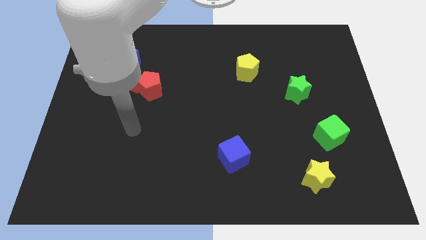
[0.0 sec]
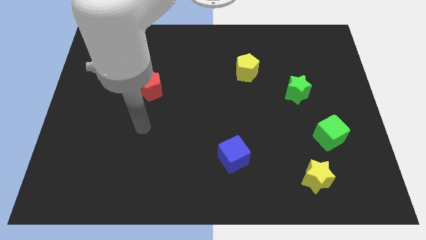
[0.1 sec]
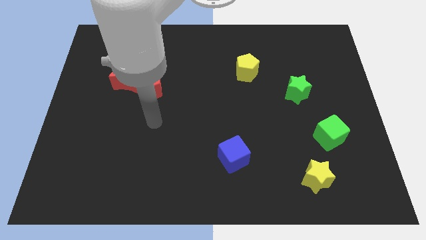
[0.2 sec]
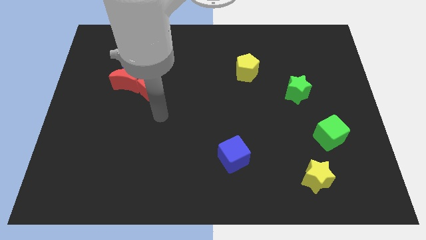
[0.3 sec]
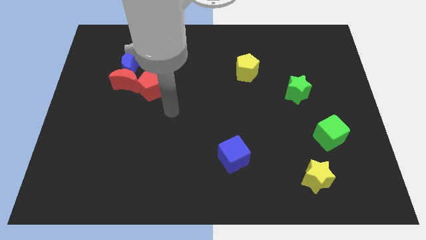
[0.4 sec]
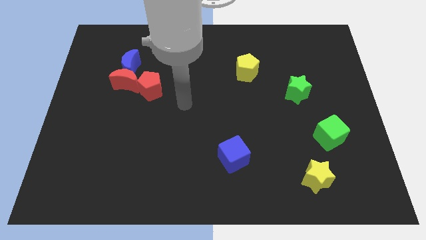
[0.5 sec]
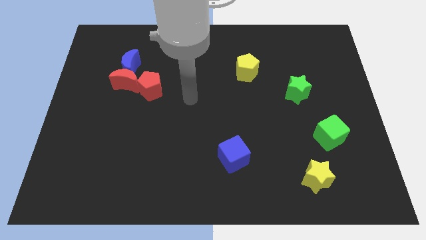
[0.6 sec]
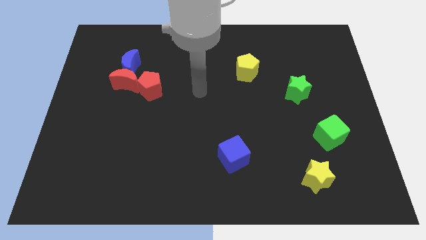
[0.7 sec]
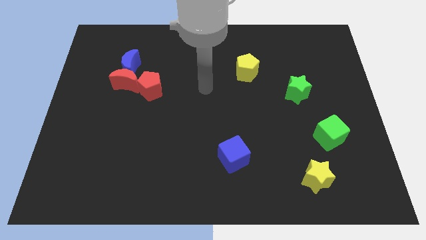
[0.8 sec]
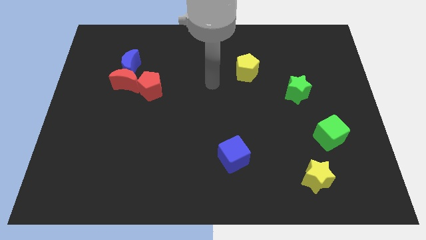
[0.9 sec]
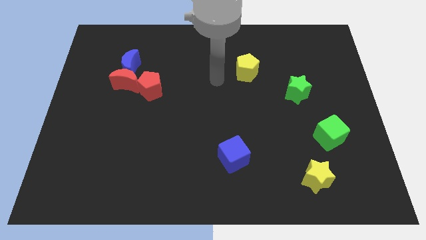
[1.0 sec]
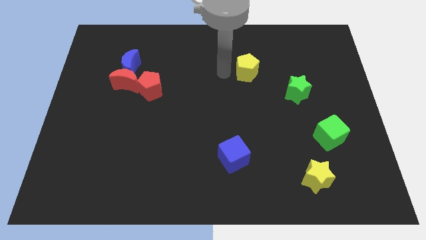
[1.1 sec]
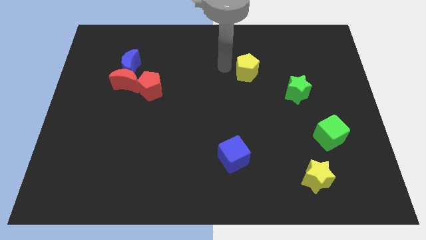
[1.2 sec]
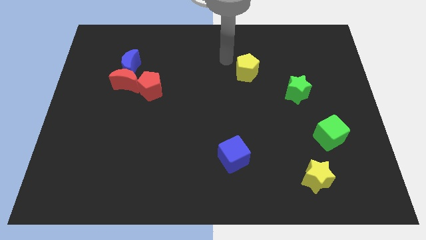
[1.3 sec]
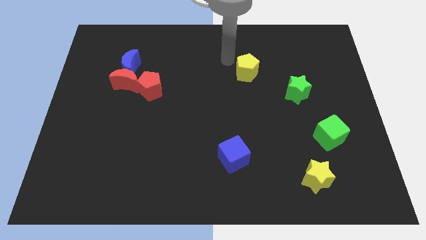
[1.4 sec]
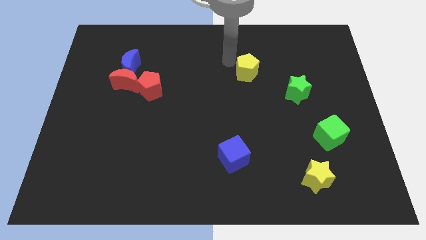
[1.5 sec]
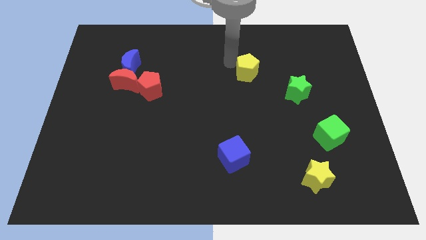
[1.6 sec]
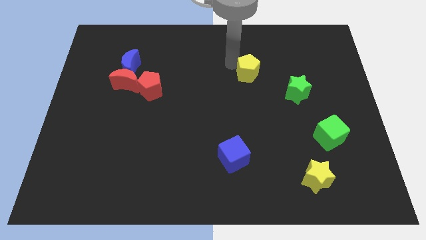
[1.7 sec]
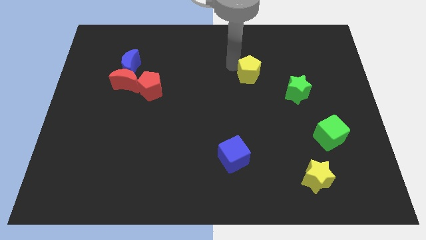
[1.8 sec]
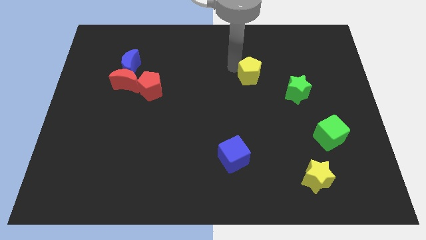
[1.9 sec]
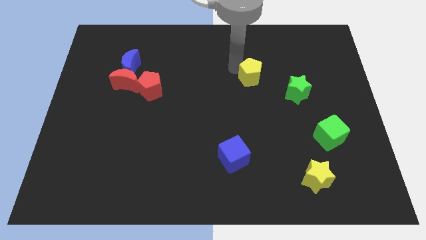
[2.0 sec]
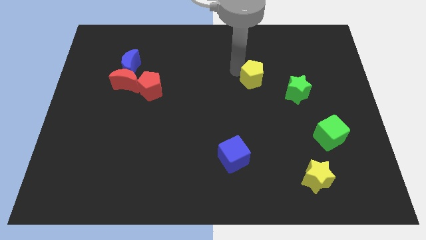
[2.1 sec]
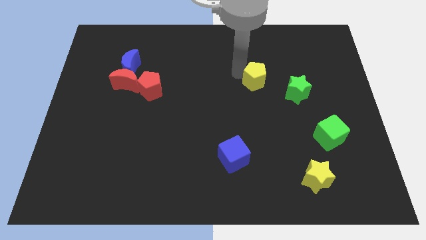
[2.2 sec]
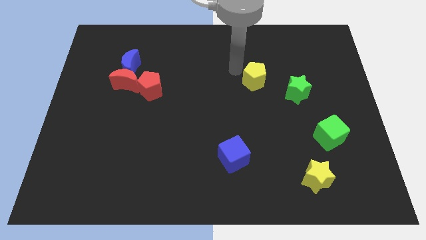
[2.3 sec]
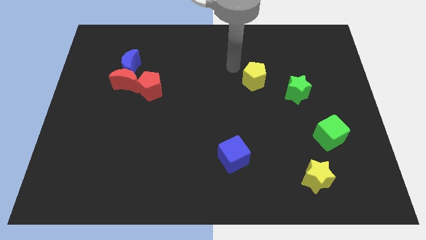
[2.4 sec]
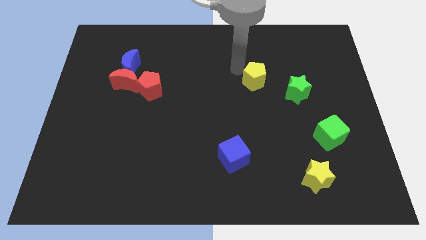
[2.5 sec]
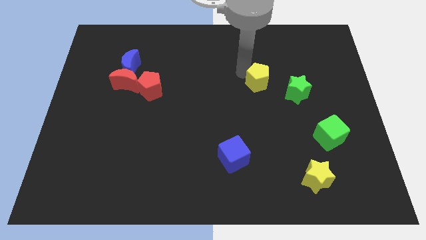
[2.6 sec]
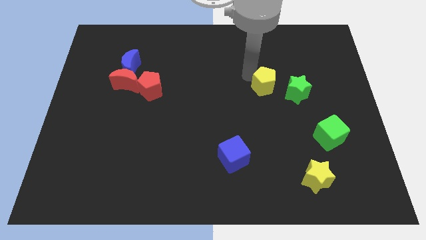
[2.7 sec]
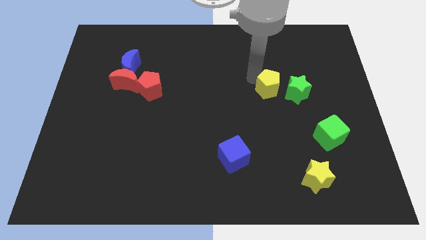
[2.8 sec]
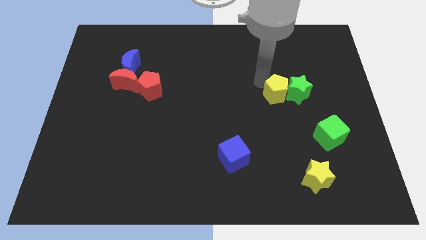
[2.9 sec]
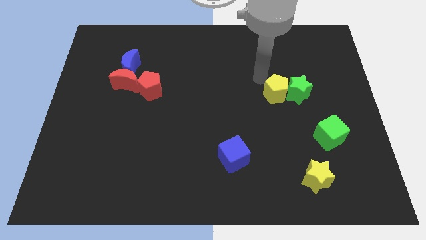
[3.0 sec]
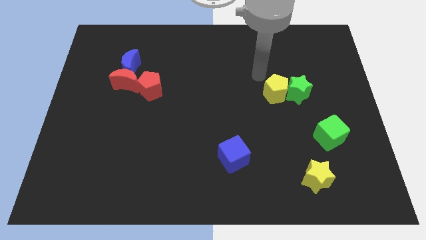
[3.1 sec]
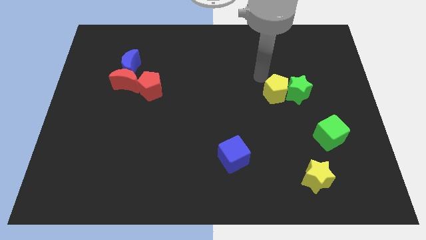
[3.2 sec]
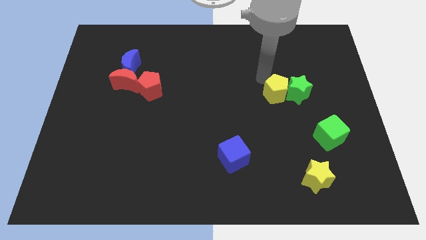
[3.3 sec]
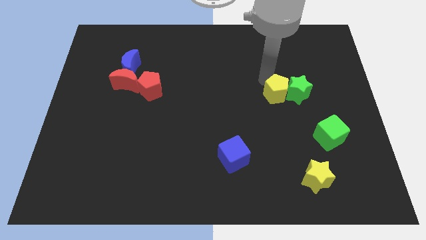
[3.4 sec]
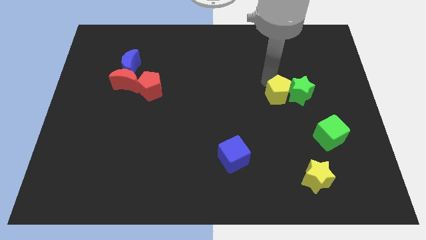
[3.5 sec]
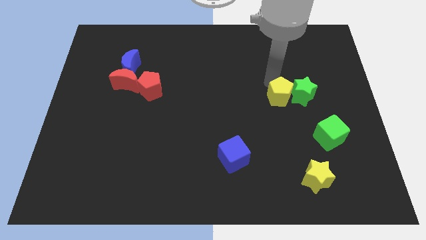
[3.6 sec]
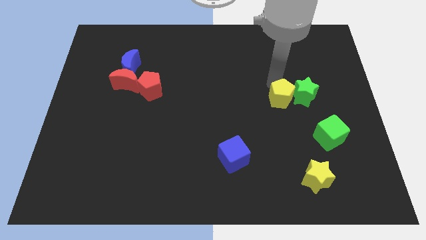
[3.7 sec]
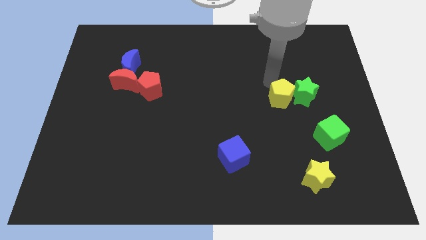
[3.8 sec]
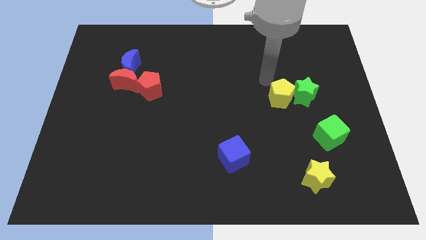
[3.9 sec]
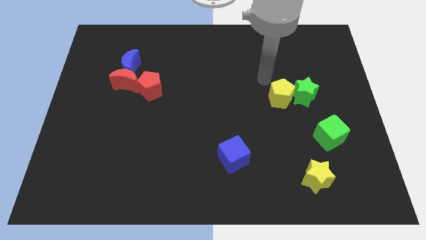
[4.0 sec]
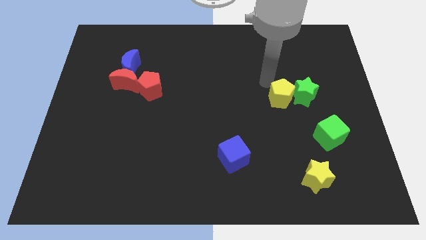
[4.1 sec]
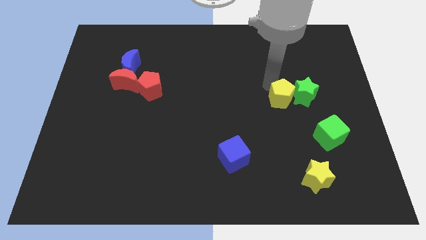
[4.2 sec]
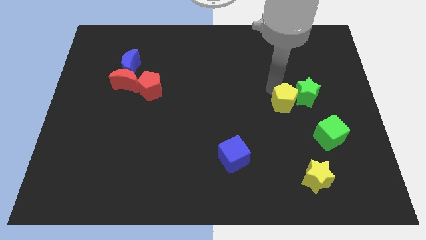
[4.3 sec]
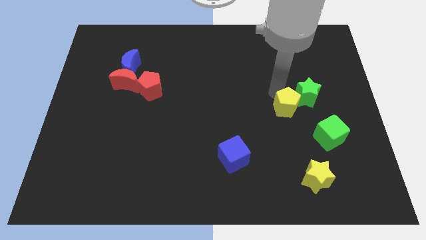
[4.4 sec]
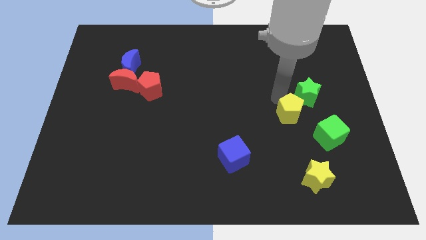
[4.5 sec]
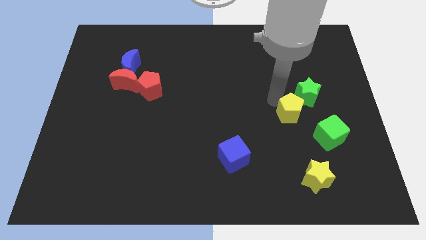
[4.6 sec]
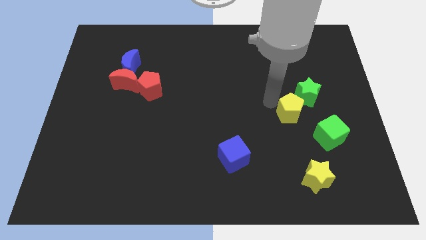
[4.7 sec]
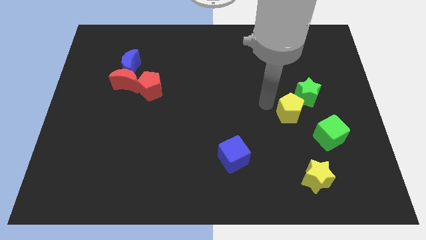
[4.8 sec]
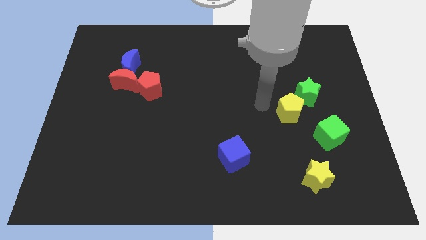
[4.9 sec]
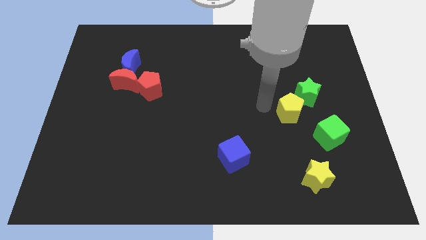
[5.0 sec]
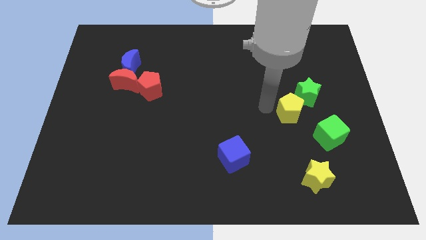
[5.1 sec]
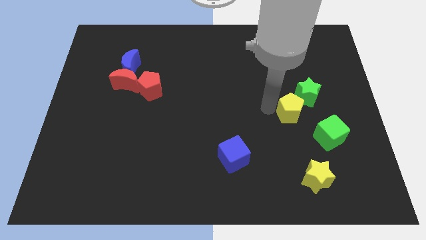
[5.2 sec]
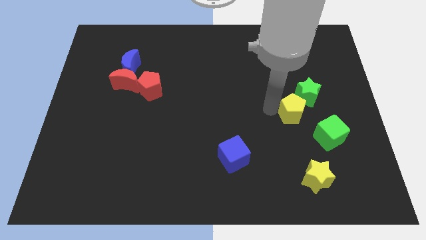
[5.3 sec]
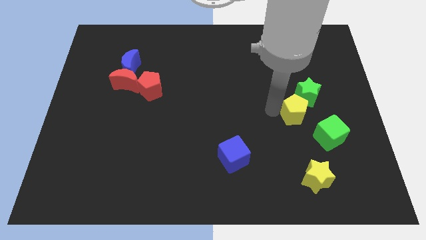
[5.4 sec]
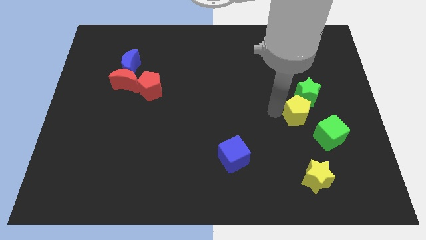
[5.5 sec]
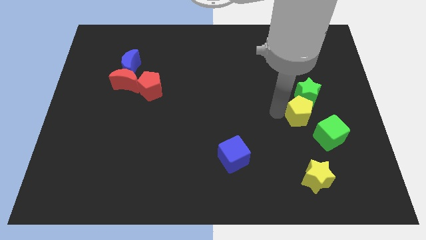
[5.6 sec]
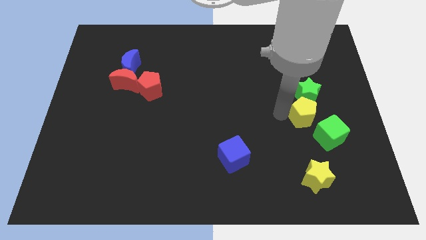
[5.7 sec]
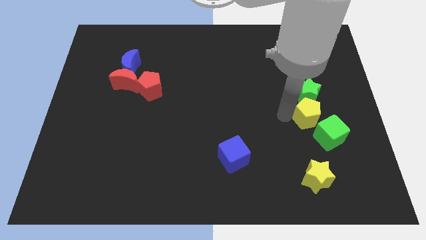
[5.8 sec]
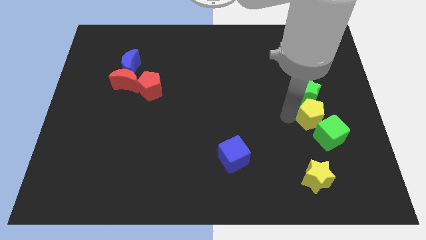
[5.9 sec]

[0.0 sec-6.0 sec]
move the yellow pentagon towards the green cube

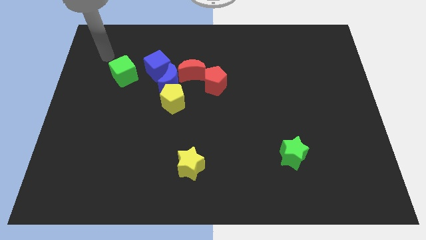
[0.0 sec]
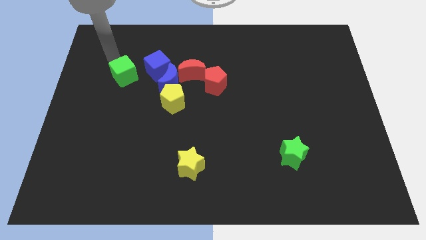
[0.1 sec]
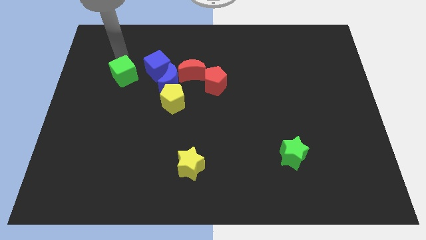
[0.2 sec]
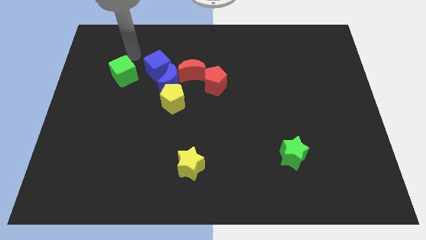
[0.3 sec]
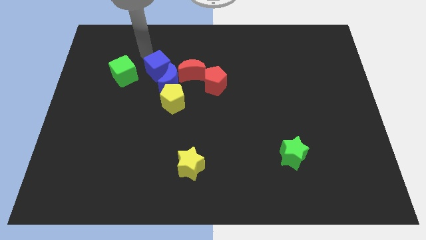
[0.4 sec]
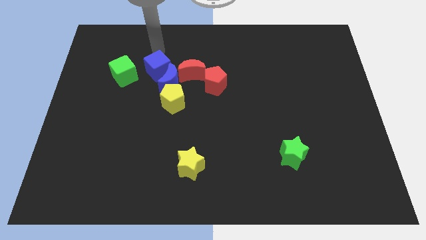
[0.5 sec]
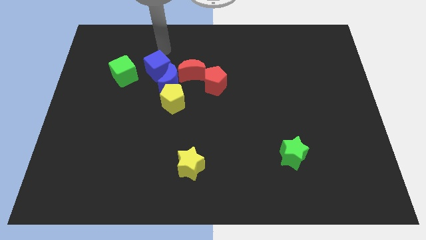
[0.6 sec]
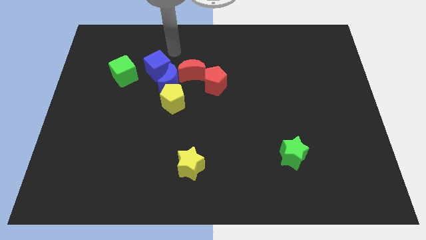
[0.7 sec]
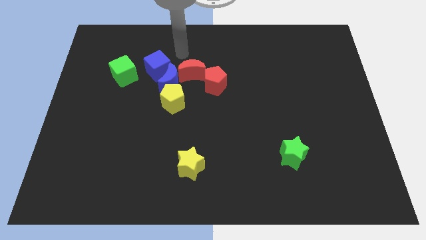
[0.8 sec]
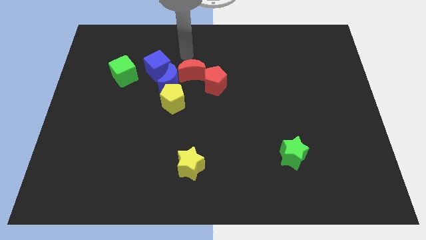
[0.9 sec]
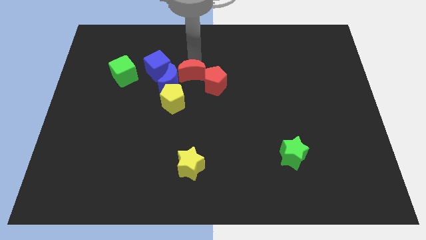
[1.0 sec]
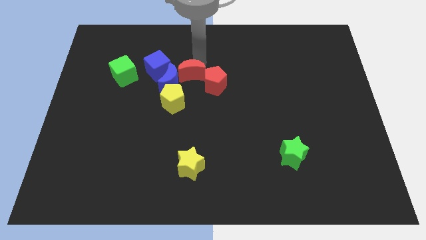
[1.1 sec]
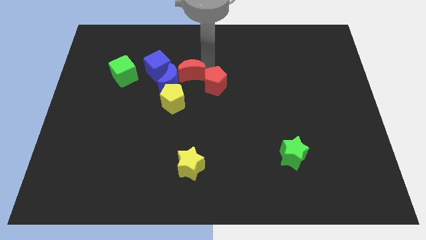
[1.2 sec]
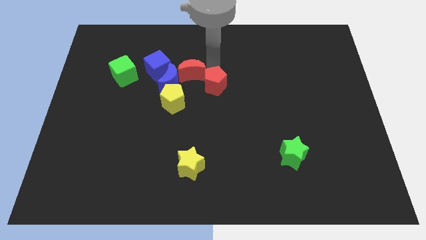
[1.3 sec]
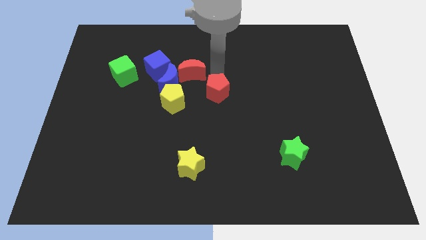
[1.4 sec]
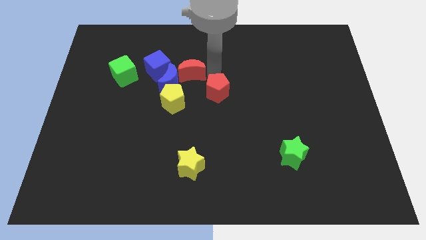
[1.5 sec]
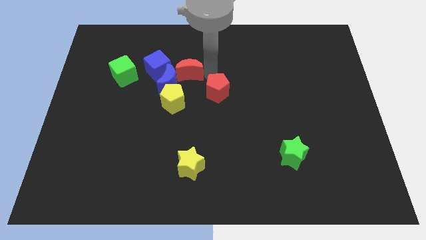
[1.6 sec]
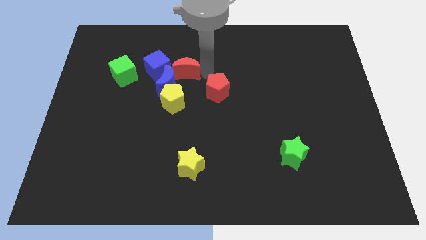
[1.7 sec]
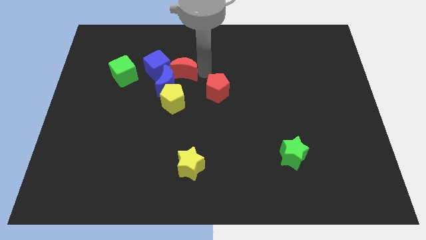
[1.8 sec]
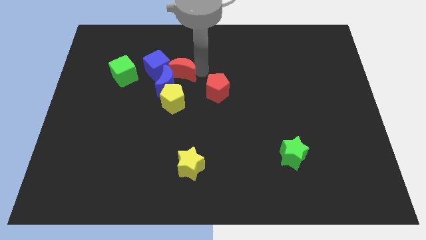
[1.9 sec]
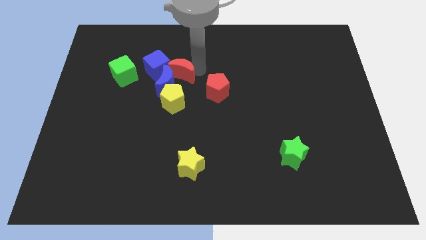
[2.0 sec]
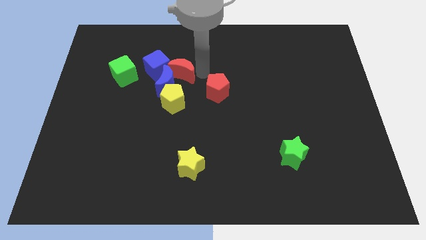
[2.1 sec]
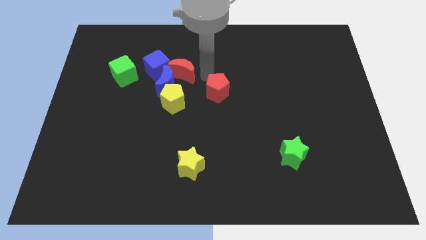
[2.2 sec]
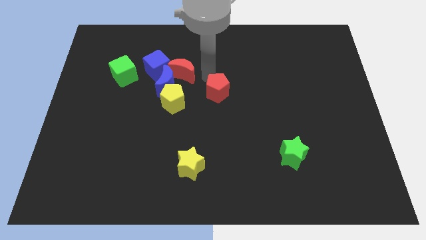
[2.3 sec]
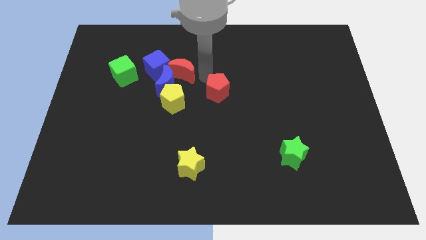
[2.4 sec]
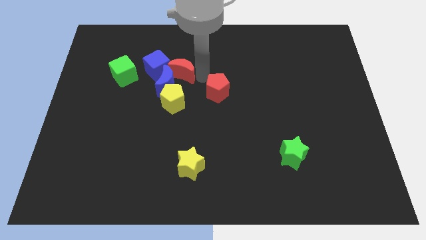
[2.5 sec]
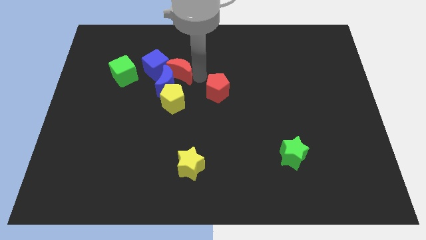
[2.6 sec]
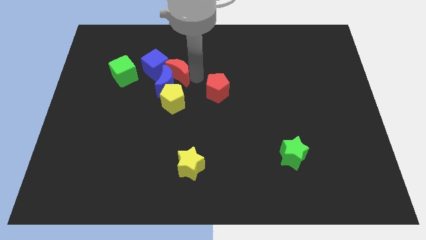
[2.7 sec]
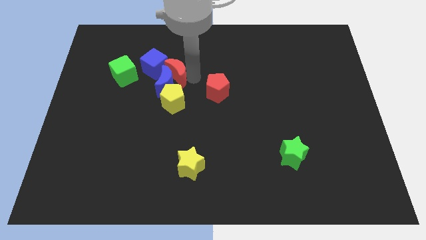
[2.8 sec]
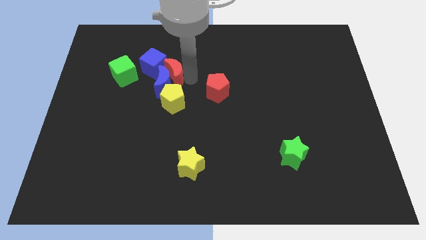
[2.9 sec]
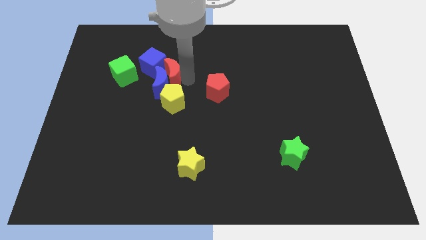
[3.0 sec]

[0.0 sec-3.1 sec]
put the red moon close to the blue cube
